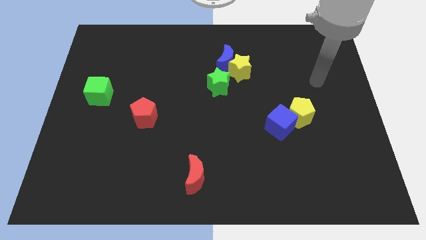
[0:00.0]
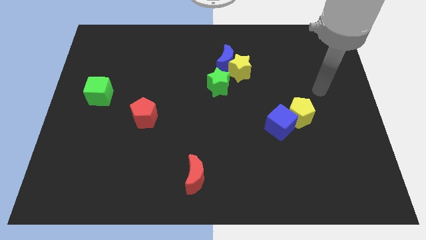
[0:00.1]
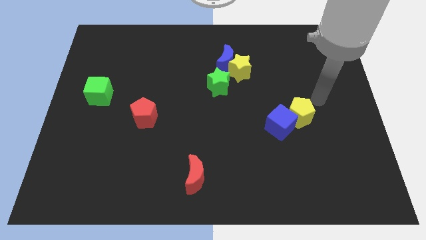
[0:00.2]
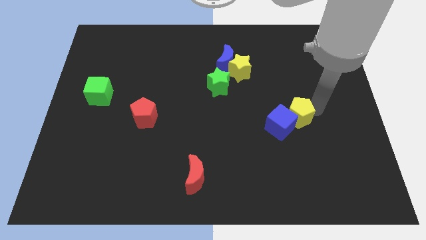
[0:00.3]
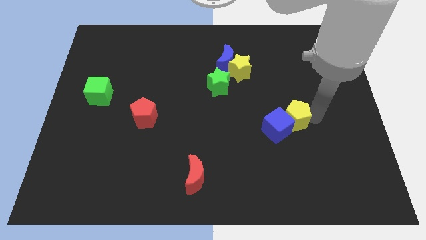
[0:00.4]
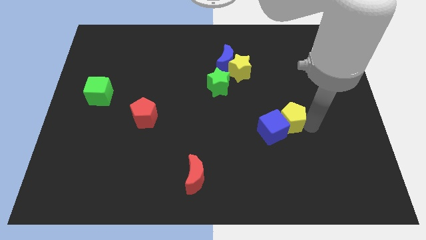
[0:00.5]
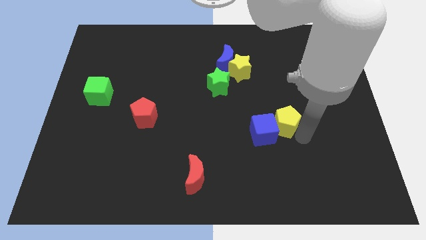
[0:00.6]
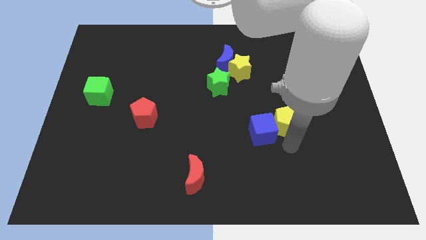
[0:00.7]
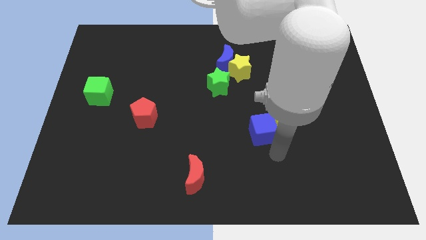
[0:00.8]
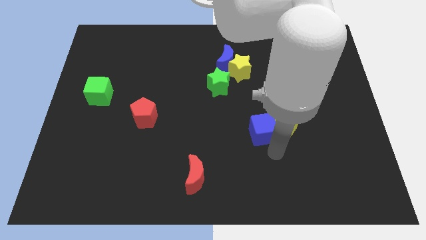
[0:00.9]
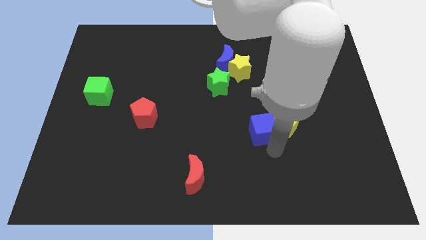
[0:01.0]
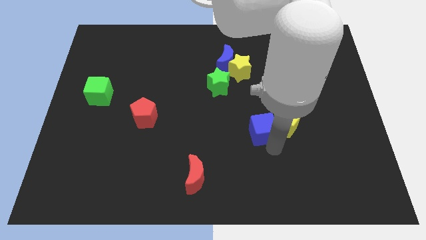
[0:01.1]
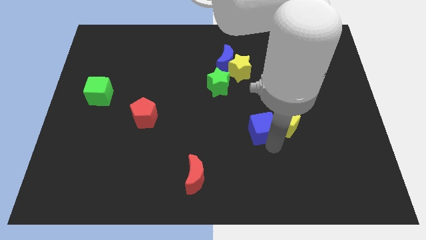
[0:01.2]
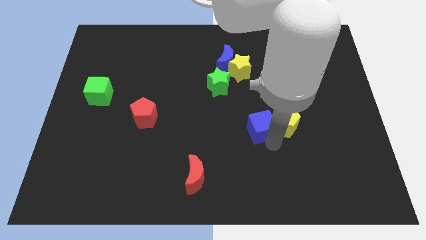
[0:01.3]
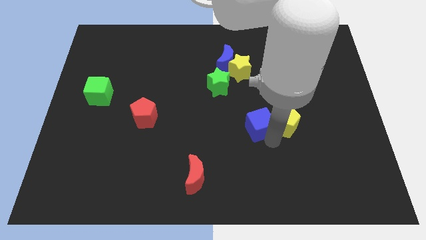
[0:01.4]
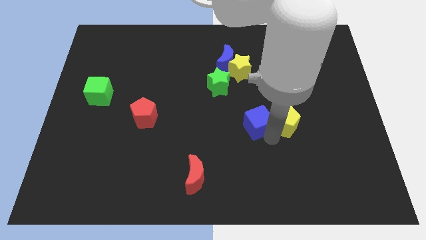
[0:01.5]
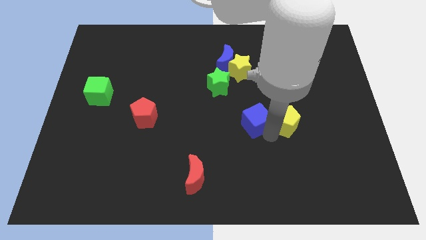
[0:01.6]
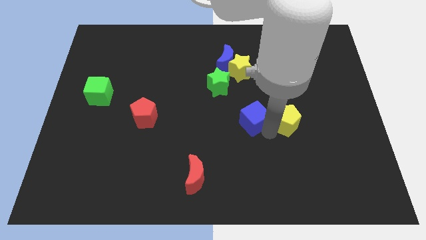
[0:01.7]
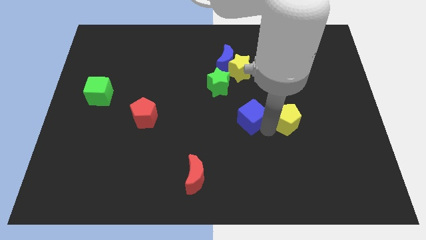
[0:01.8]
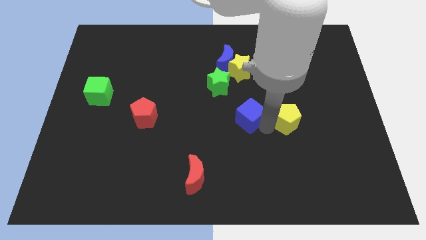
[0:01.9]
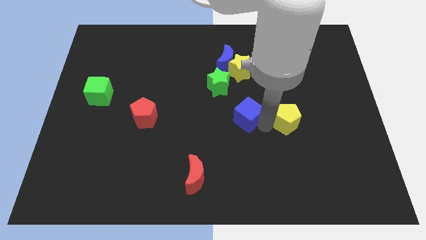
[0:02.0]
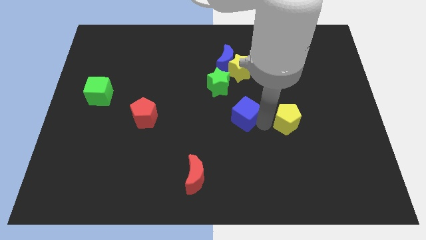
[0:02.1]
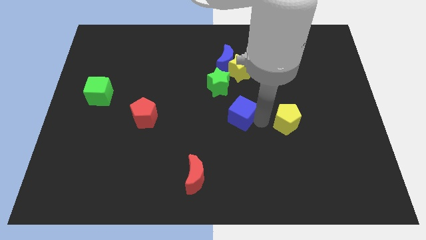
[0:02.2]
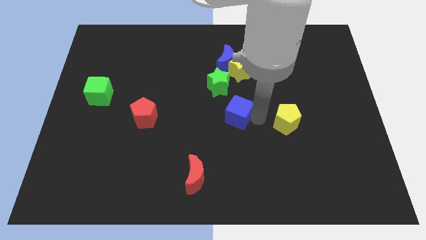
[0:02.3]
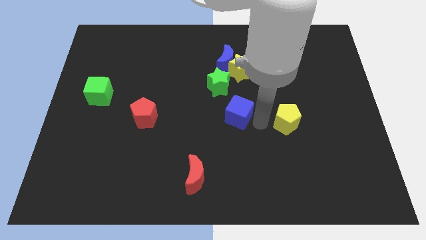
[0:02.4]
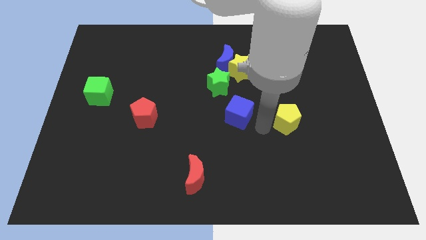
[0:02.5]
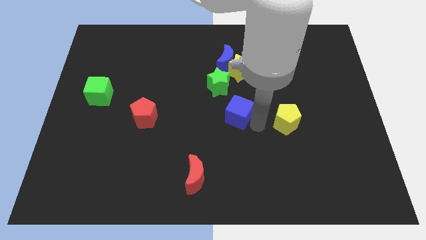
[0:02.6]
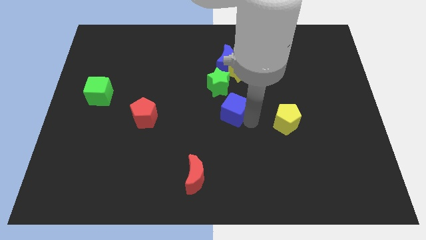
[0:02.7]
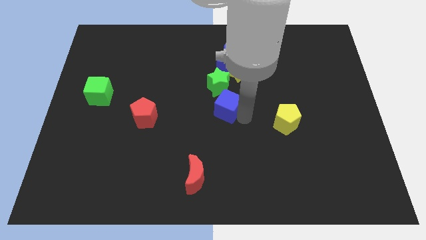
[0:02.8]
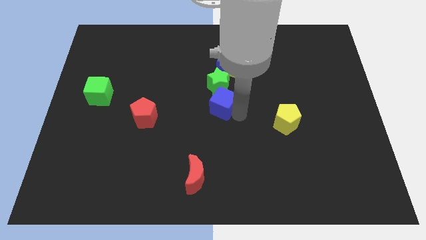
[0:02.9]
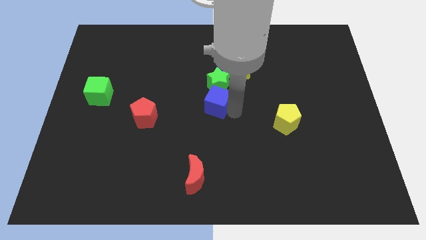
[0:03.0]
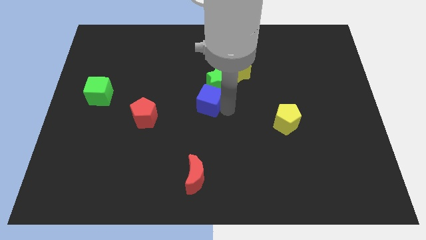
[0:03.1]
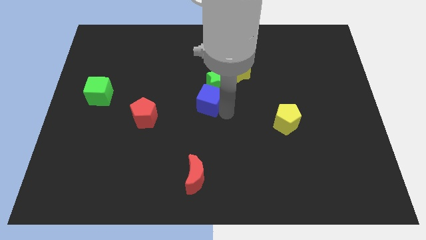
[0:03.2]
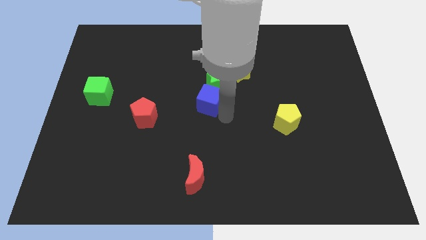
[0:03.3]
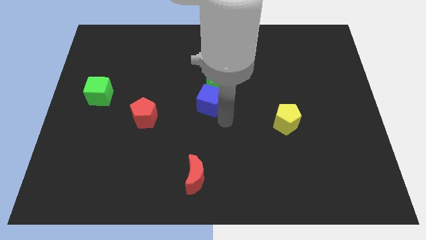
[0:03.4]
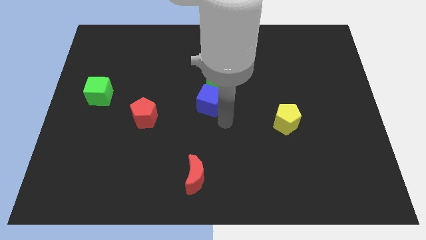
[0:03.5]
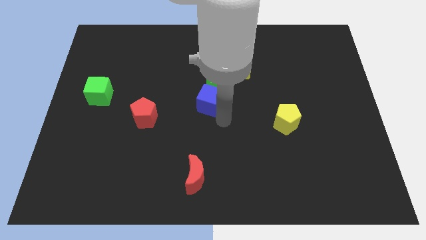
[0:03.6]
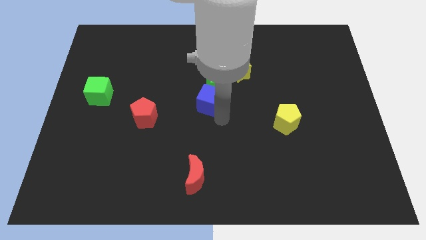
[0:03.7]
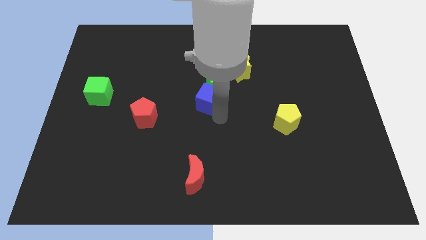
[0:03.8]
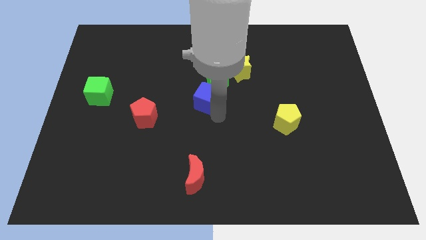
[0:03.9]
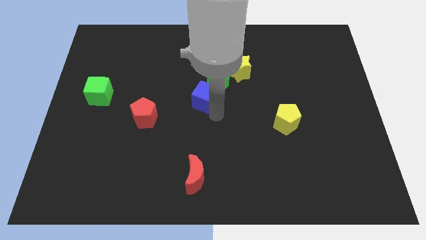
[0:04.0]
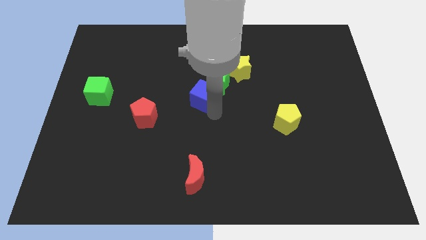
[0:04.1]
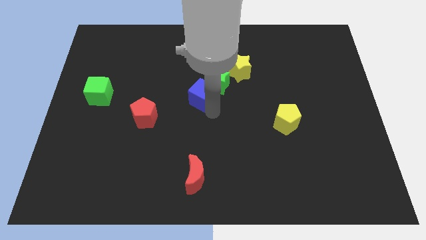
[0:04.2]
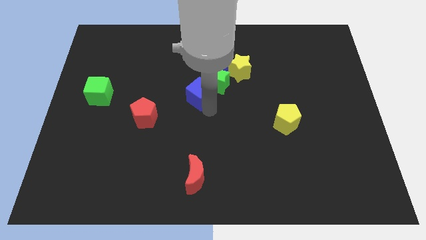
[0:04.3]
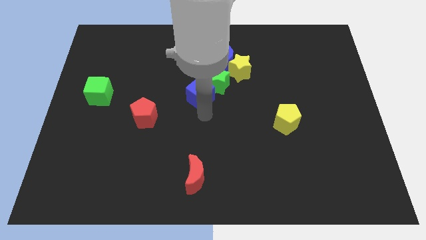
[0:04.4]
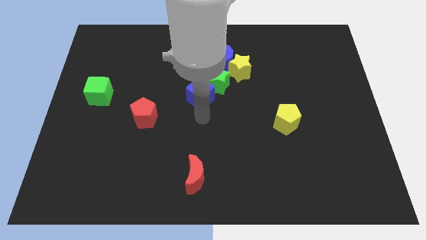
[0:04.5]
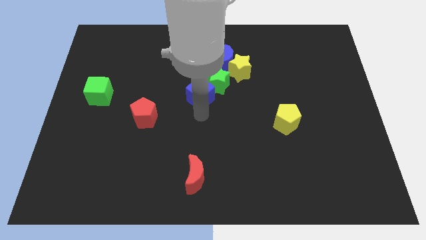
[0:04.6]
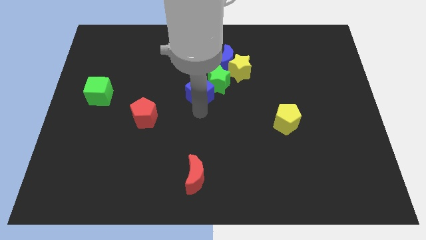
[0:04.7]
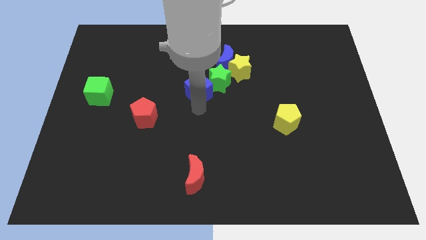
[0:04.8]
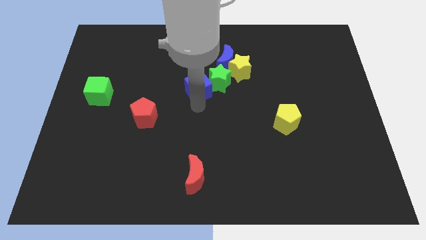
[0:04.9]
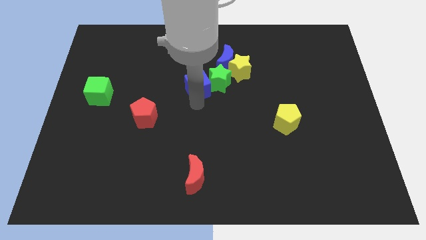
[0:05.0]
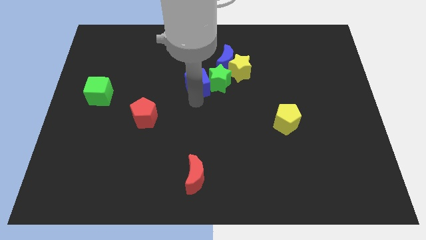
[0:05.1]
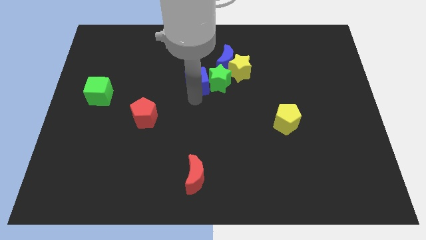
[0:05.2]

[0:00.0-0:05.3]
put the blue cube left of the yellow star

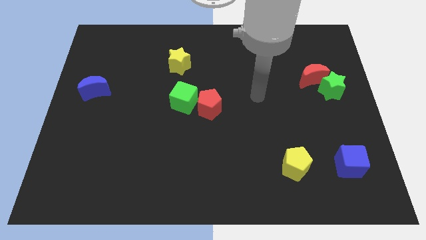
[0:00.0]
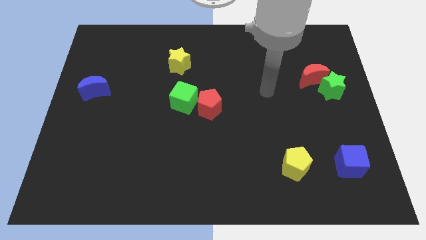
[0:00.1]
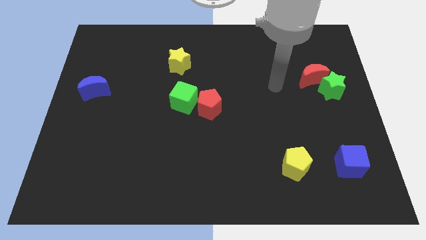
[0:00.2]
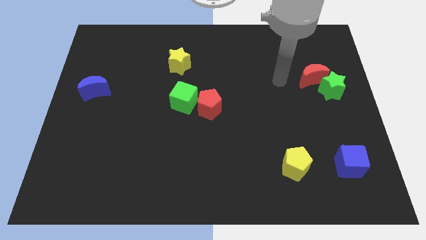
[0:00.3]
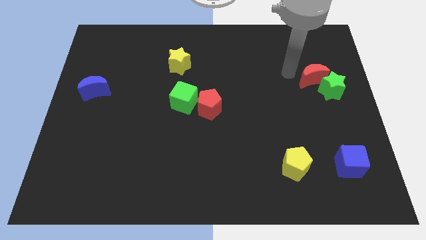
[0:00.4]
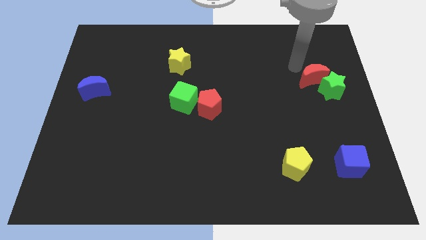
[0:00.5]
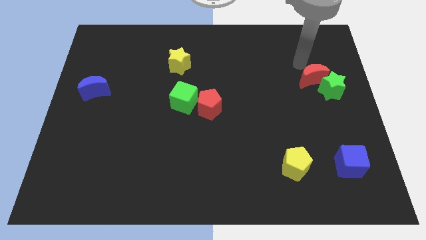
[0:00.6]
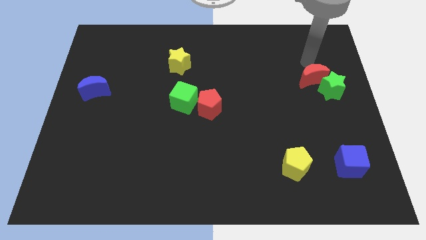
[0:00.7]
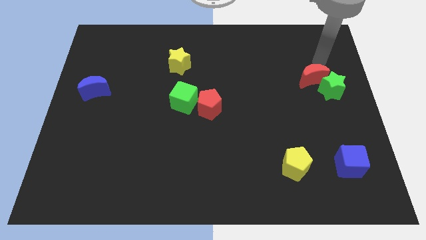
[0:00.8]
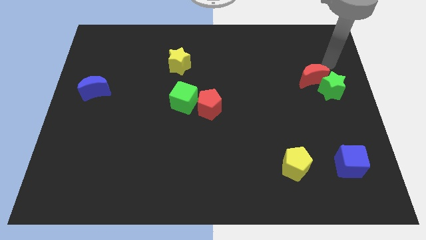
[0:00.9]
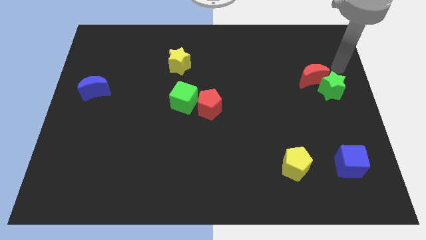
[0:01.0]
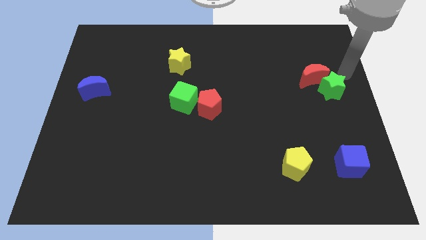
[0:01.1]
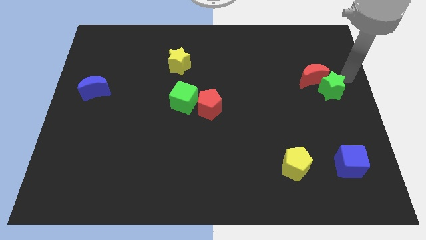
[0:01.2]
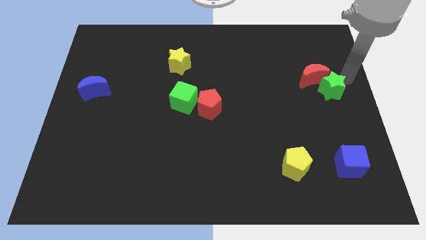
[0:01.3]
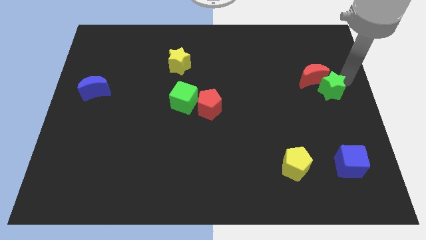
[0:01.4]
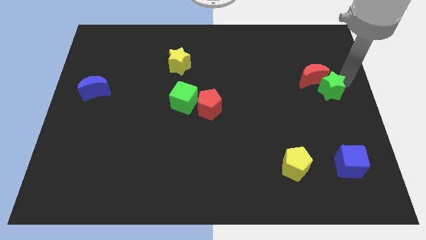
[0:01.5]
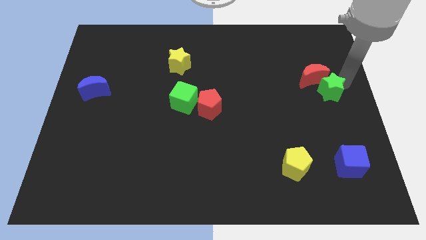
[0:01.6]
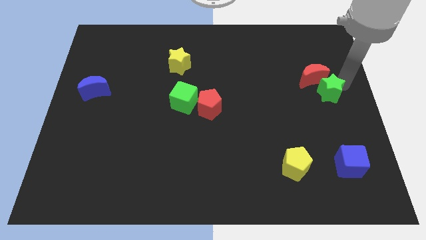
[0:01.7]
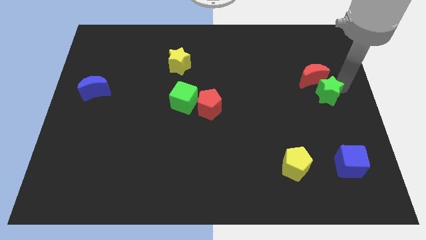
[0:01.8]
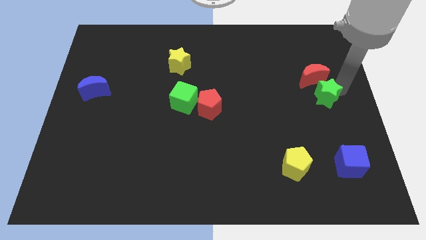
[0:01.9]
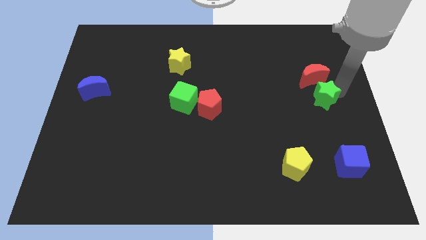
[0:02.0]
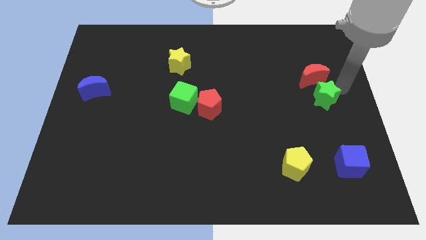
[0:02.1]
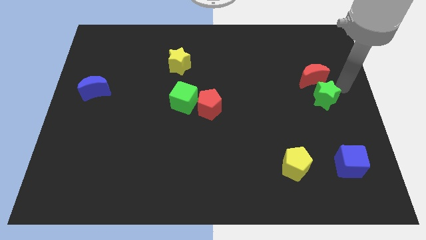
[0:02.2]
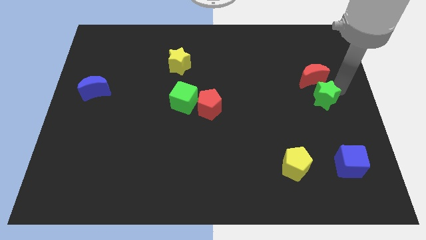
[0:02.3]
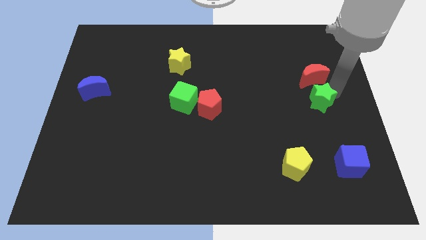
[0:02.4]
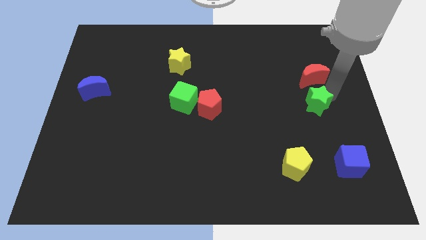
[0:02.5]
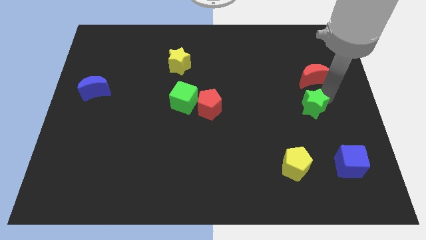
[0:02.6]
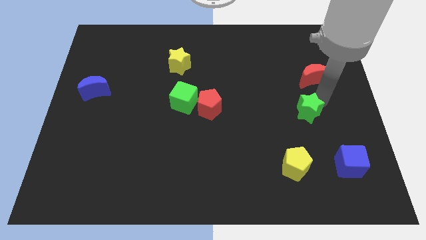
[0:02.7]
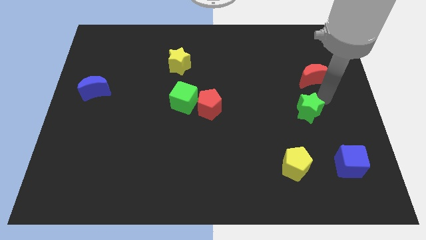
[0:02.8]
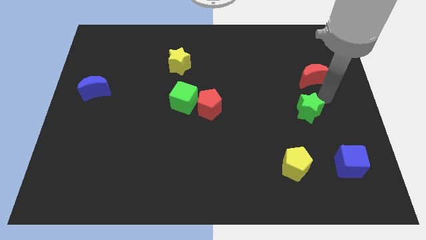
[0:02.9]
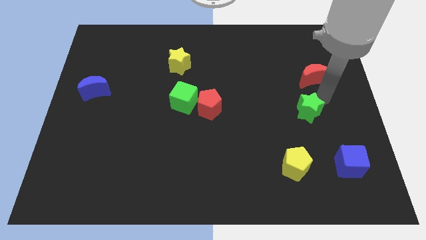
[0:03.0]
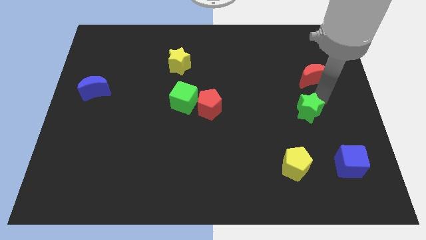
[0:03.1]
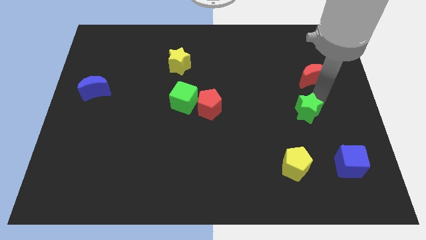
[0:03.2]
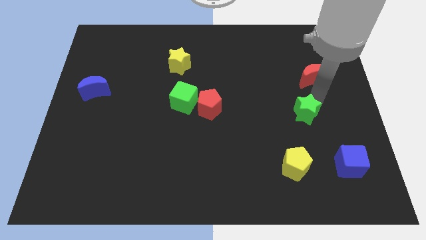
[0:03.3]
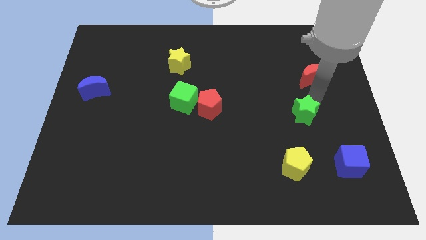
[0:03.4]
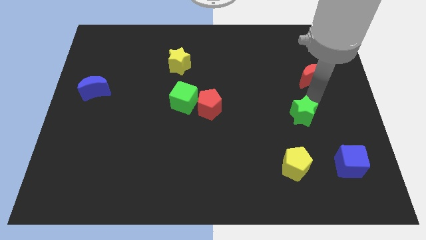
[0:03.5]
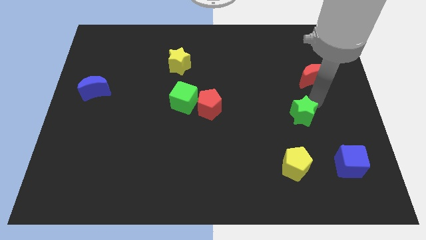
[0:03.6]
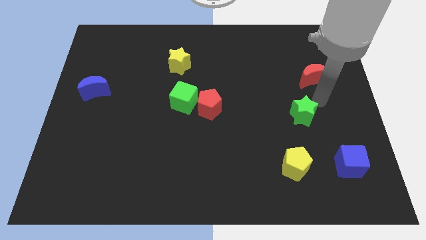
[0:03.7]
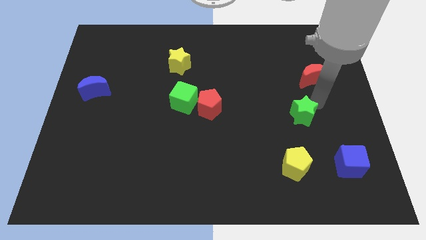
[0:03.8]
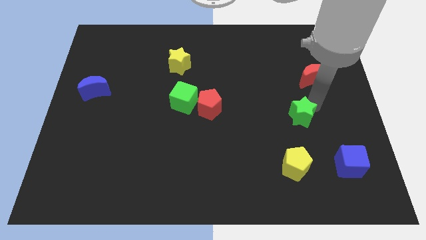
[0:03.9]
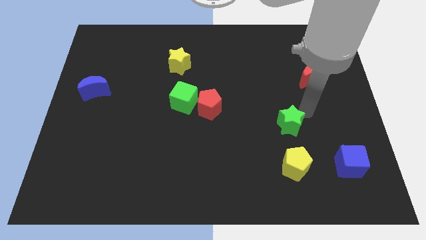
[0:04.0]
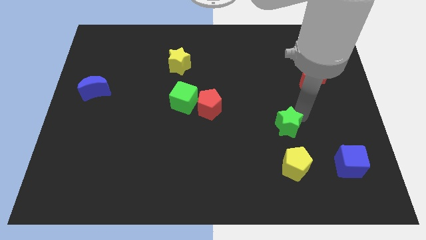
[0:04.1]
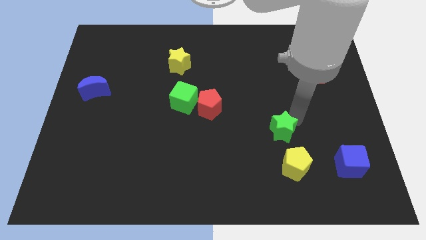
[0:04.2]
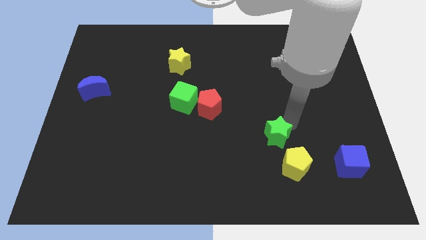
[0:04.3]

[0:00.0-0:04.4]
put the green star diagonally up and to the left of the yellow pentagon
